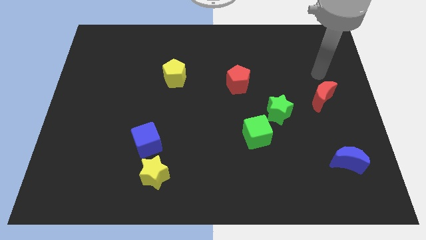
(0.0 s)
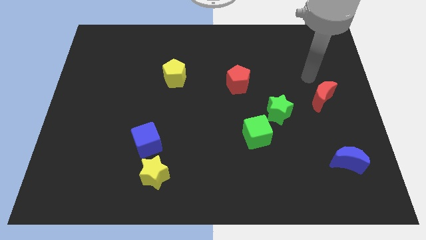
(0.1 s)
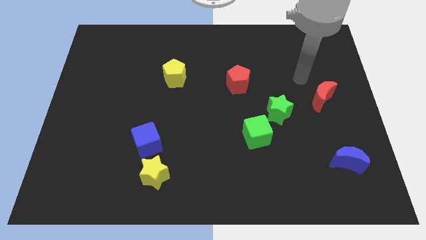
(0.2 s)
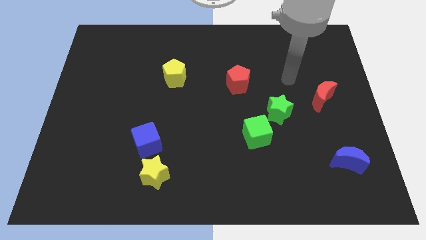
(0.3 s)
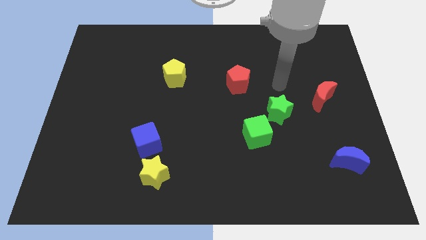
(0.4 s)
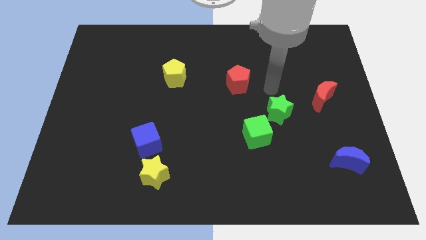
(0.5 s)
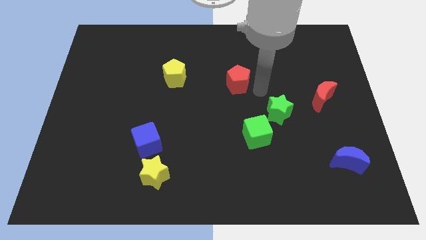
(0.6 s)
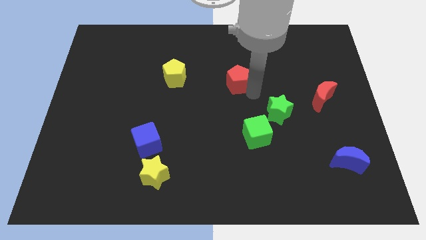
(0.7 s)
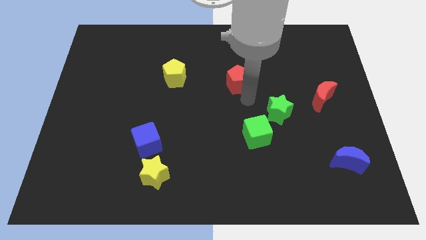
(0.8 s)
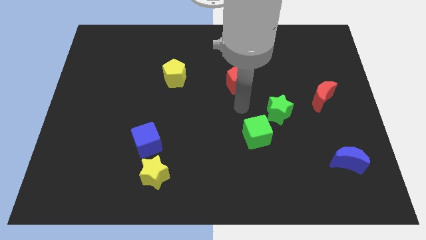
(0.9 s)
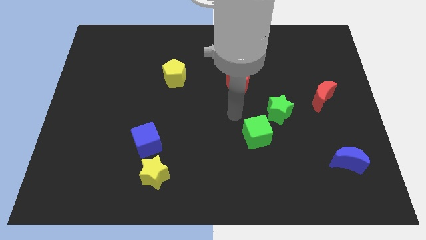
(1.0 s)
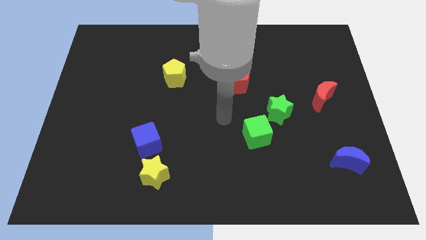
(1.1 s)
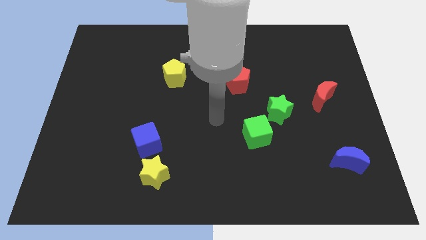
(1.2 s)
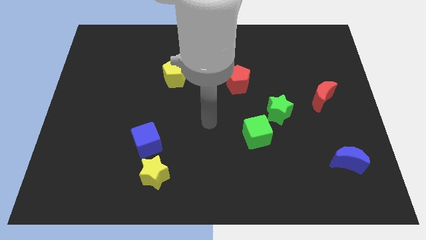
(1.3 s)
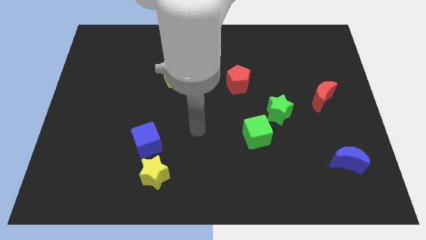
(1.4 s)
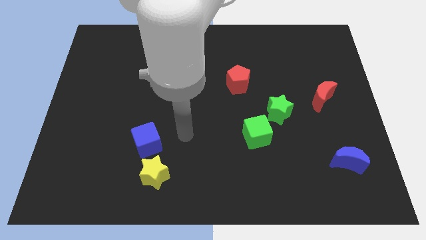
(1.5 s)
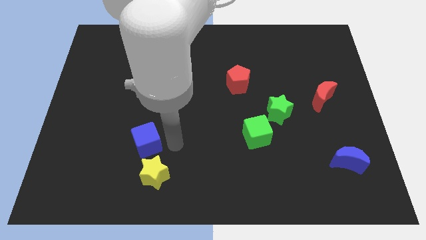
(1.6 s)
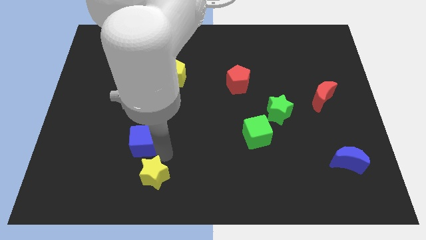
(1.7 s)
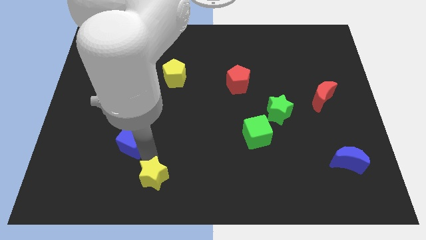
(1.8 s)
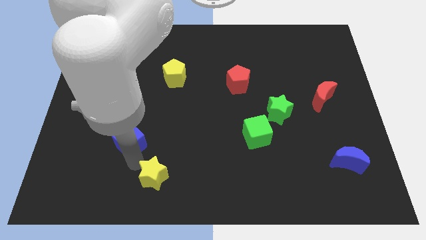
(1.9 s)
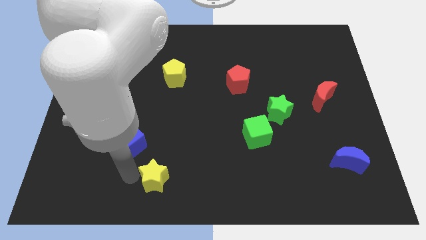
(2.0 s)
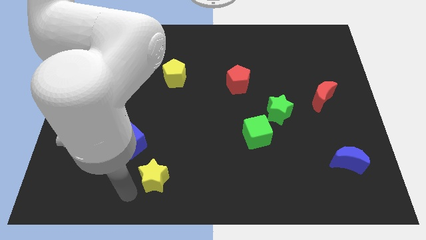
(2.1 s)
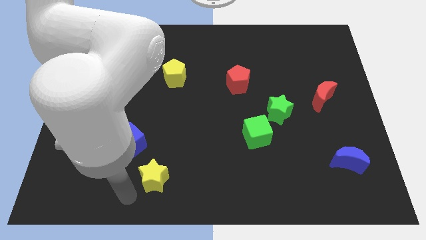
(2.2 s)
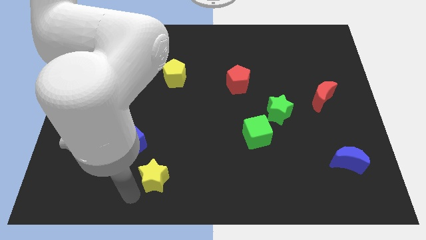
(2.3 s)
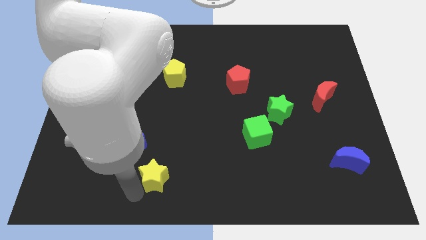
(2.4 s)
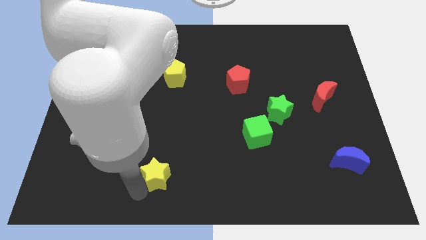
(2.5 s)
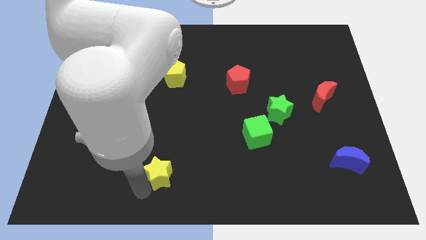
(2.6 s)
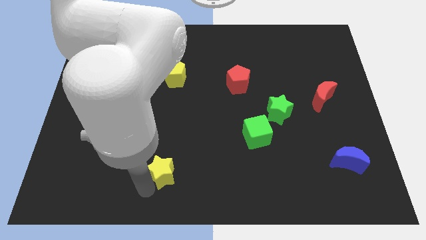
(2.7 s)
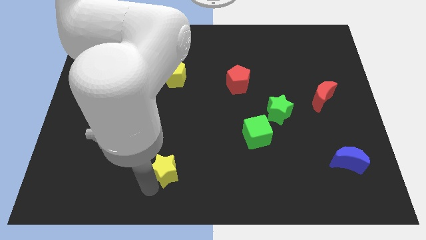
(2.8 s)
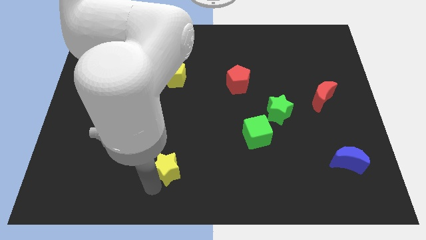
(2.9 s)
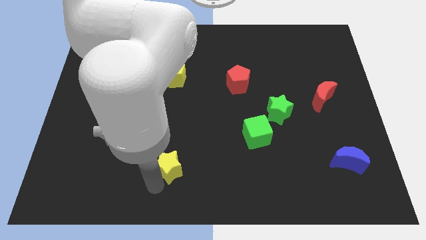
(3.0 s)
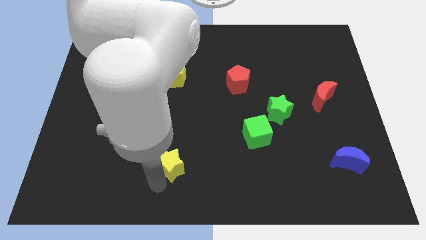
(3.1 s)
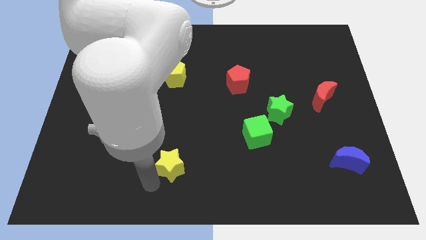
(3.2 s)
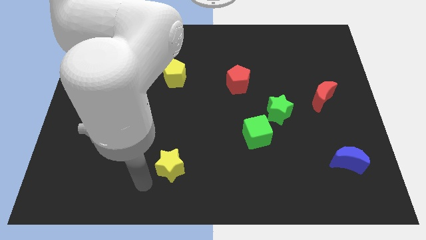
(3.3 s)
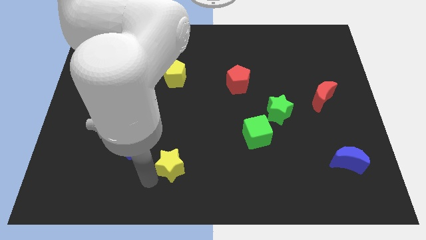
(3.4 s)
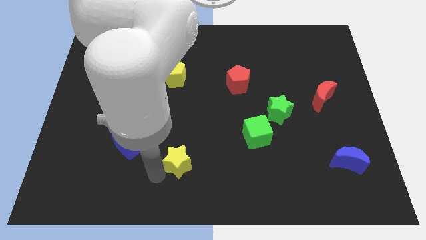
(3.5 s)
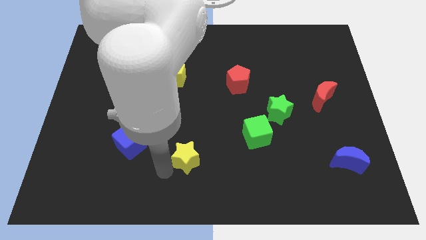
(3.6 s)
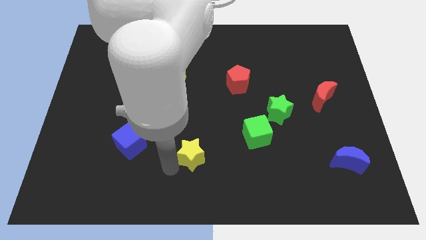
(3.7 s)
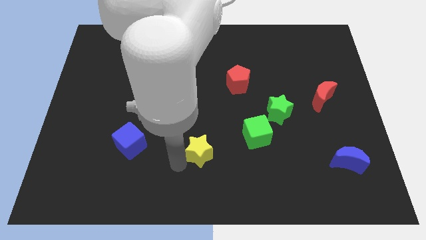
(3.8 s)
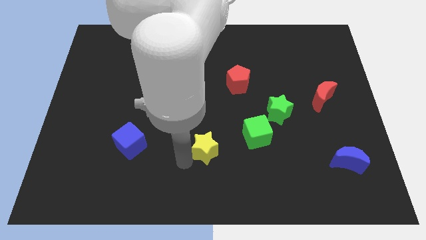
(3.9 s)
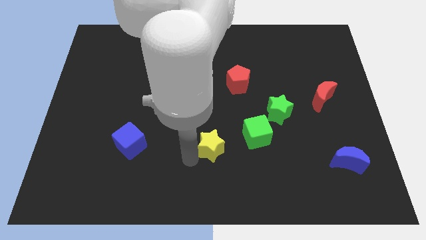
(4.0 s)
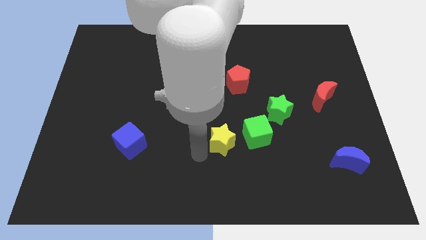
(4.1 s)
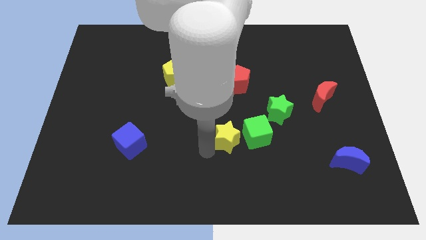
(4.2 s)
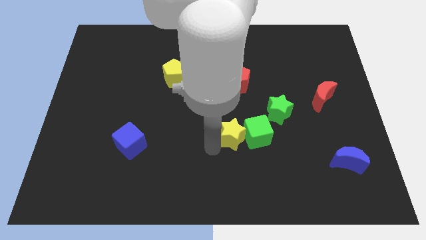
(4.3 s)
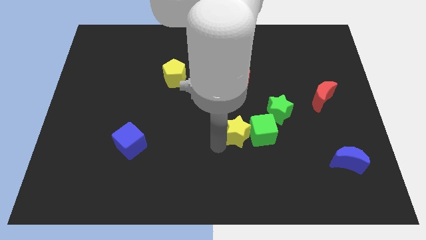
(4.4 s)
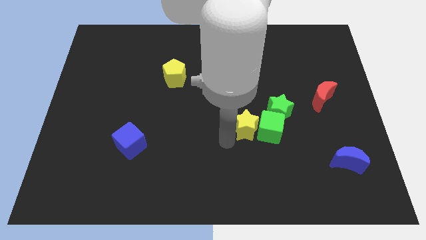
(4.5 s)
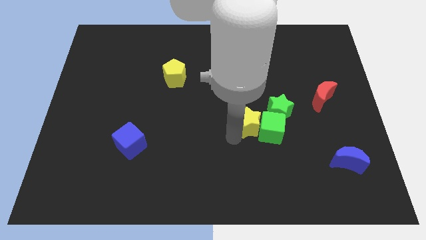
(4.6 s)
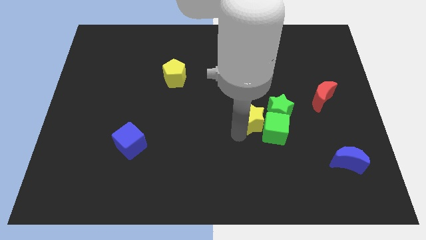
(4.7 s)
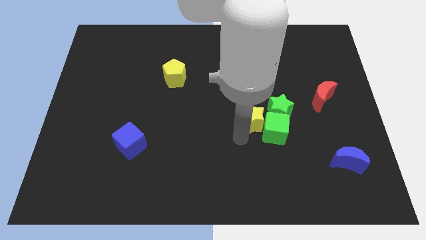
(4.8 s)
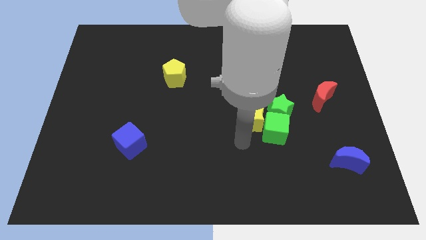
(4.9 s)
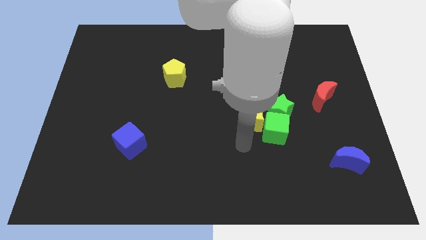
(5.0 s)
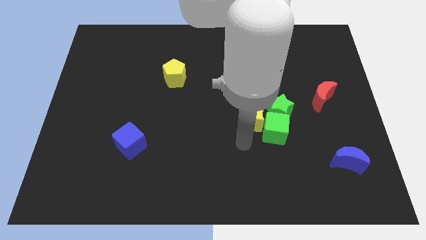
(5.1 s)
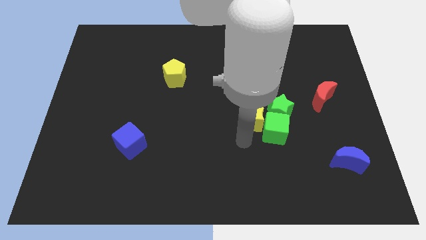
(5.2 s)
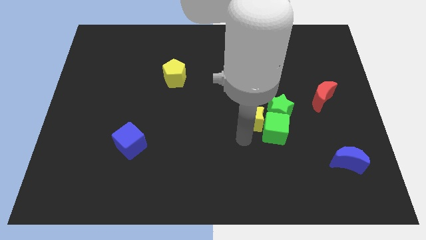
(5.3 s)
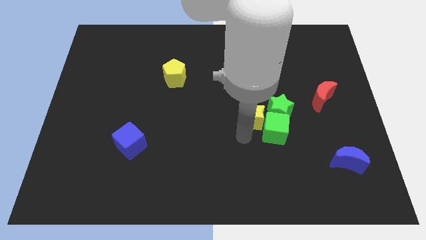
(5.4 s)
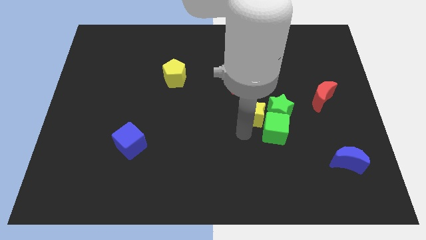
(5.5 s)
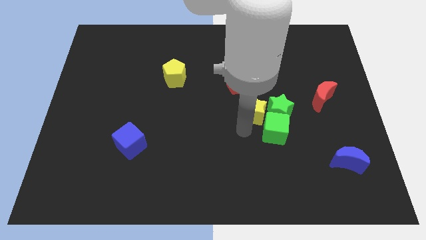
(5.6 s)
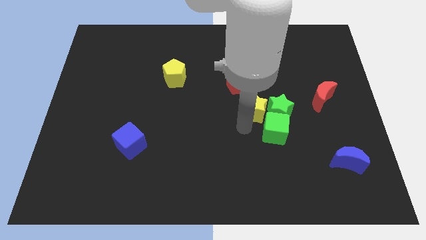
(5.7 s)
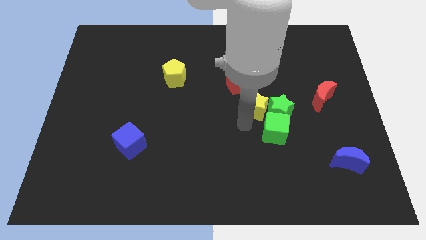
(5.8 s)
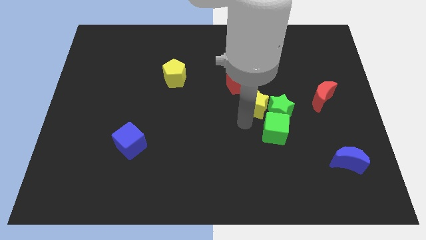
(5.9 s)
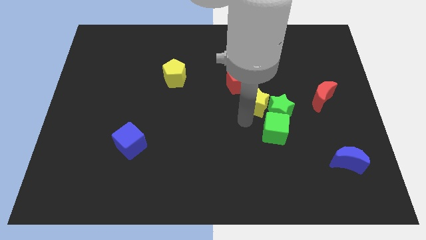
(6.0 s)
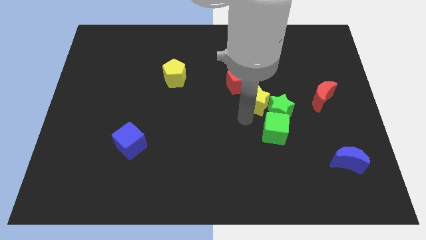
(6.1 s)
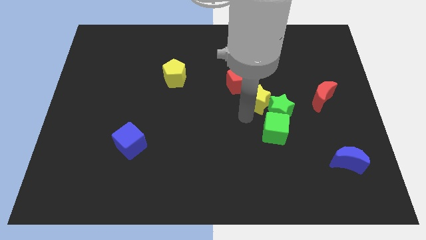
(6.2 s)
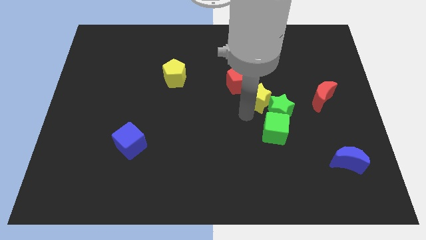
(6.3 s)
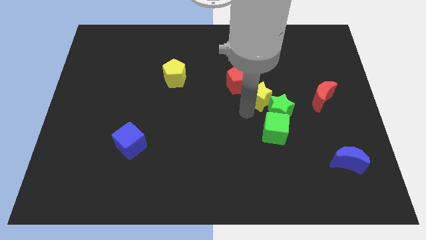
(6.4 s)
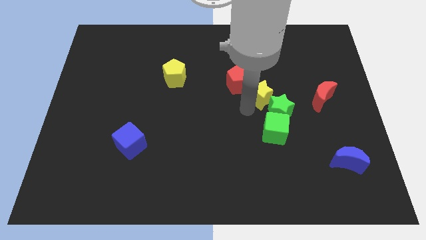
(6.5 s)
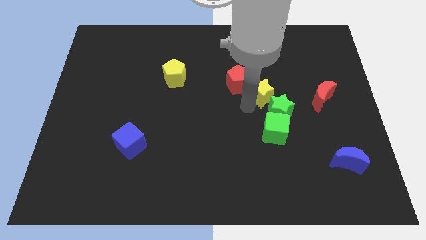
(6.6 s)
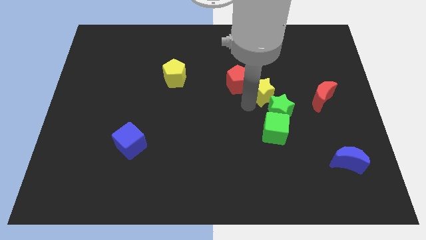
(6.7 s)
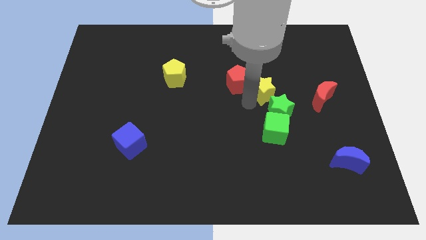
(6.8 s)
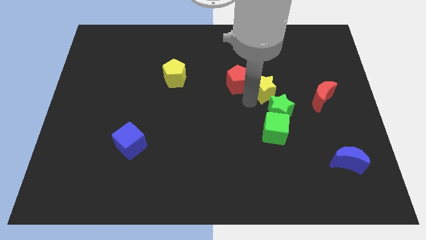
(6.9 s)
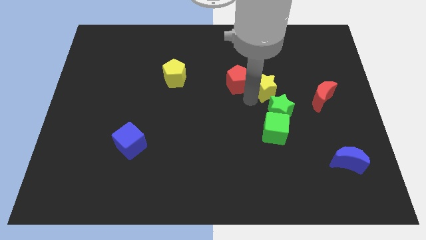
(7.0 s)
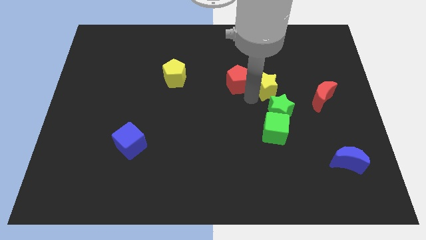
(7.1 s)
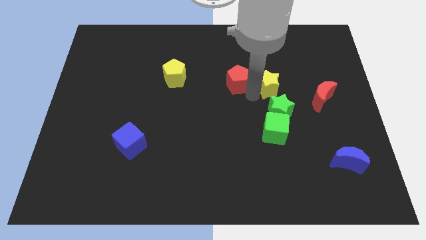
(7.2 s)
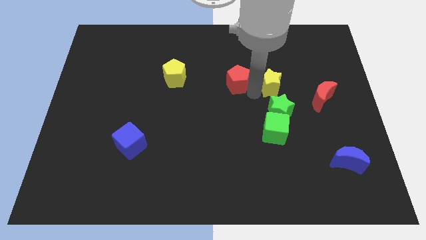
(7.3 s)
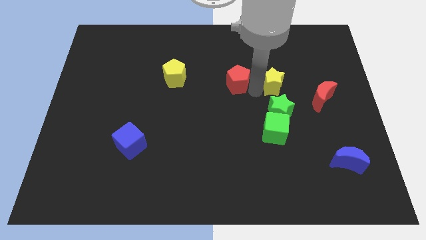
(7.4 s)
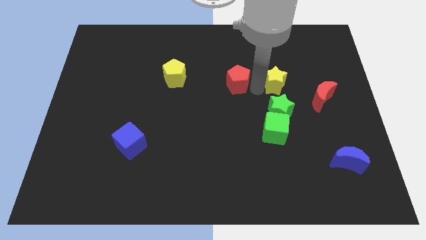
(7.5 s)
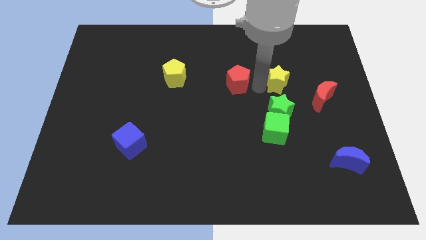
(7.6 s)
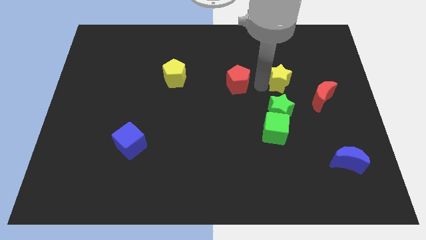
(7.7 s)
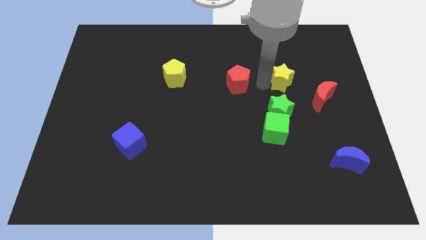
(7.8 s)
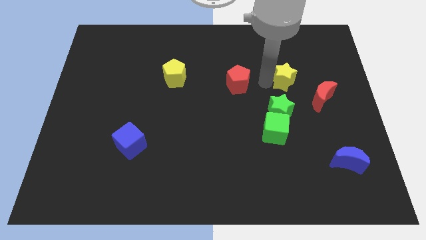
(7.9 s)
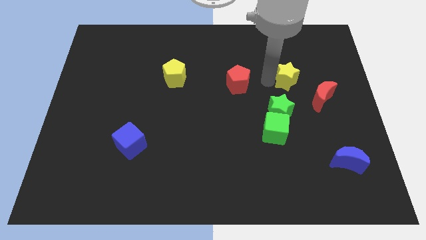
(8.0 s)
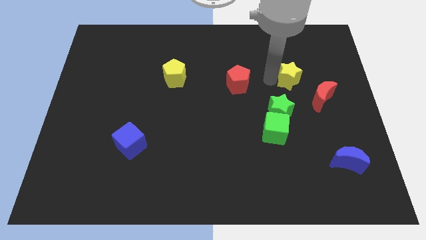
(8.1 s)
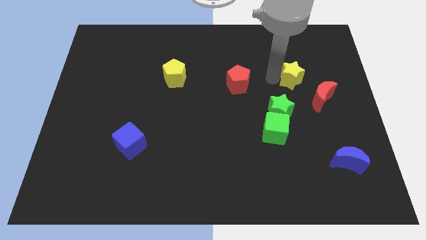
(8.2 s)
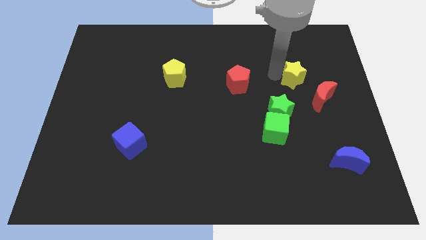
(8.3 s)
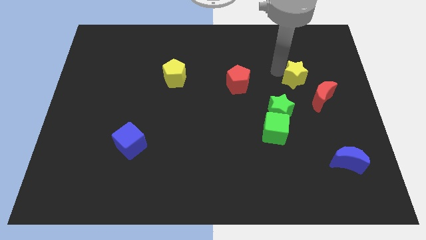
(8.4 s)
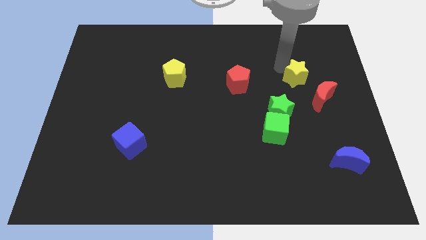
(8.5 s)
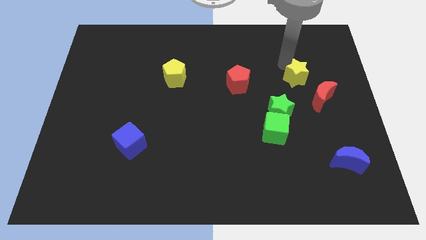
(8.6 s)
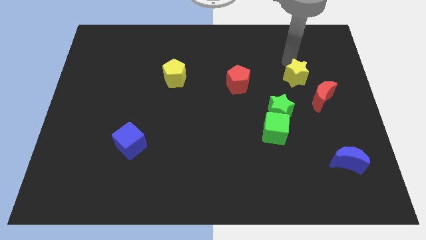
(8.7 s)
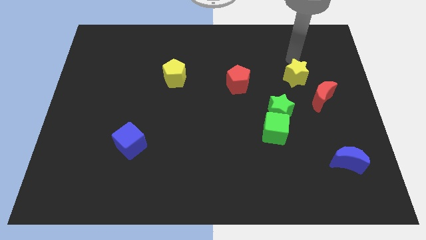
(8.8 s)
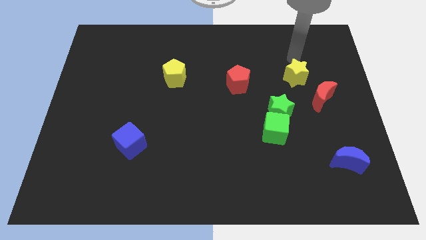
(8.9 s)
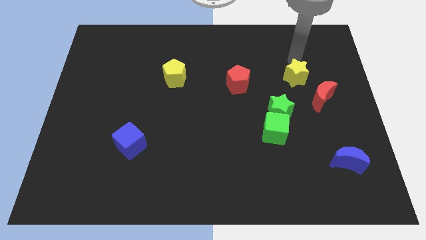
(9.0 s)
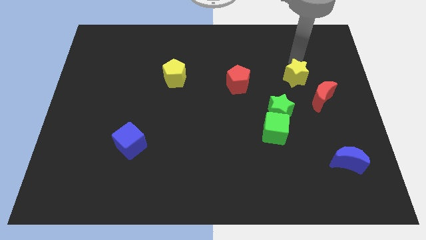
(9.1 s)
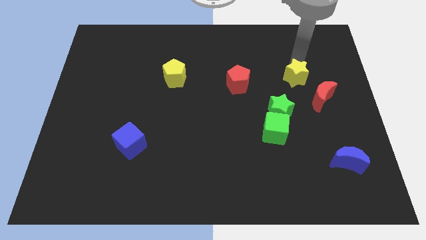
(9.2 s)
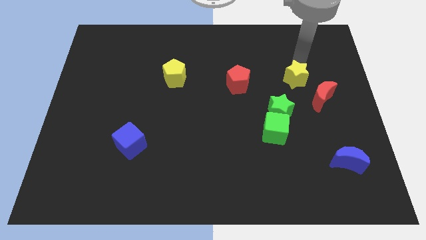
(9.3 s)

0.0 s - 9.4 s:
push the yellow star to the top right of the green star
